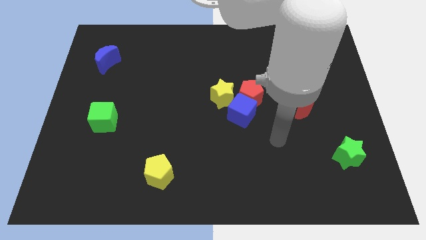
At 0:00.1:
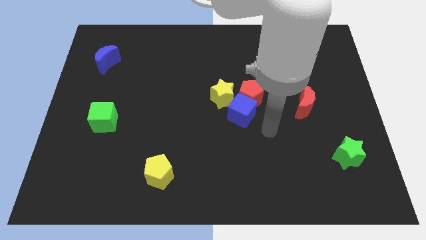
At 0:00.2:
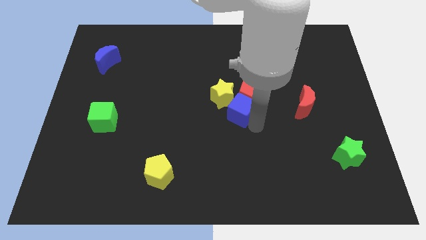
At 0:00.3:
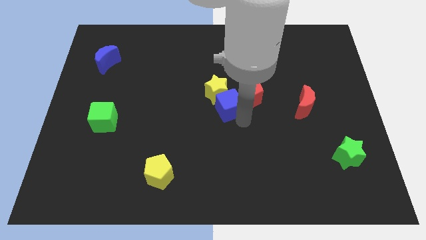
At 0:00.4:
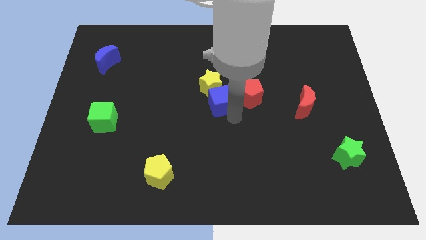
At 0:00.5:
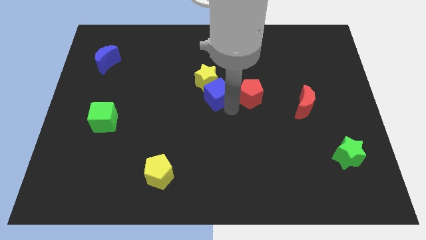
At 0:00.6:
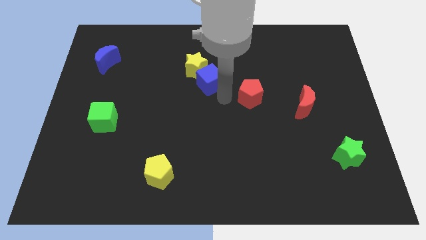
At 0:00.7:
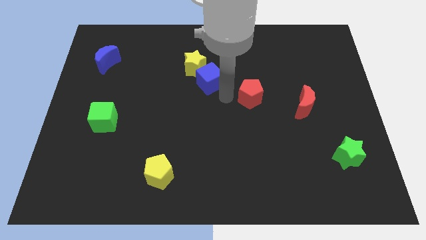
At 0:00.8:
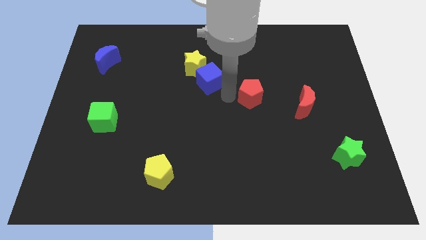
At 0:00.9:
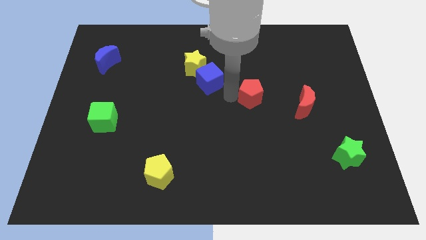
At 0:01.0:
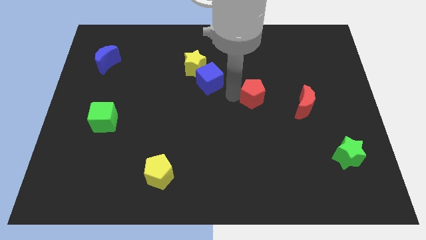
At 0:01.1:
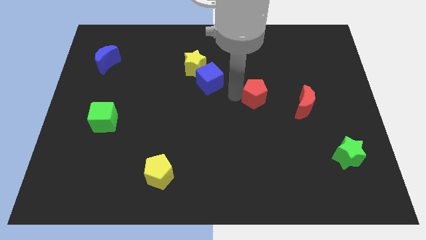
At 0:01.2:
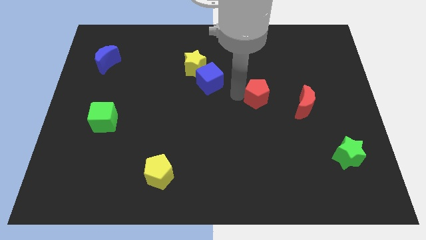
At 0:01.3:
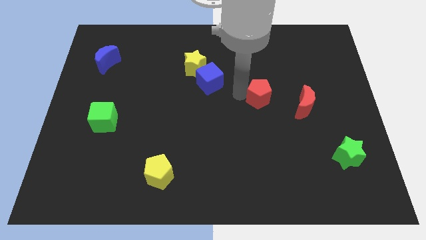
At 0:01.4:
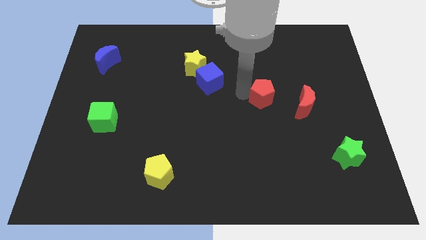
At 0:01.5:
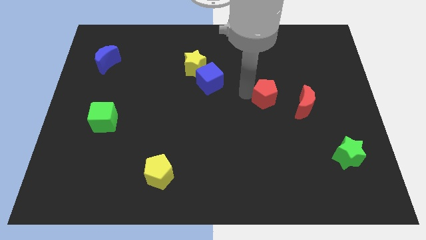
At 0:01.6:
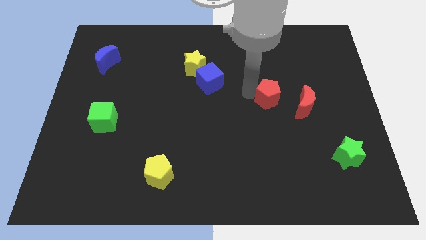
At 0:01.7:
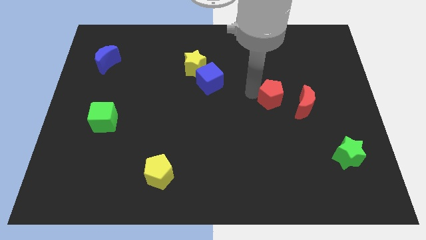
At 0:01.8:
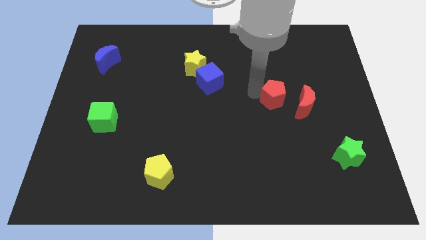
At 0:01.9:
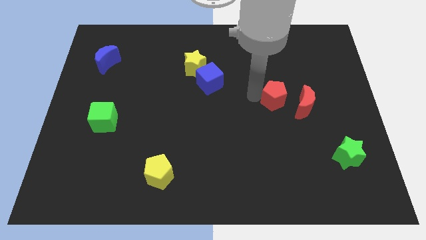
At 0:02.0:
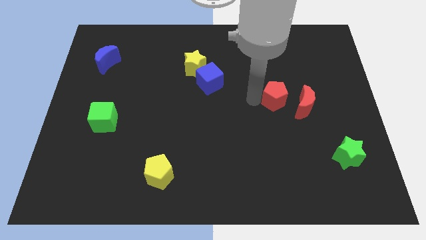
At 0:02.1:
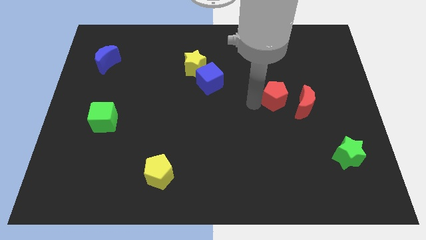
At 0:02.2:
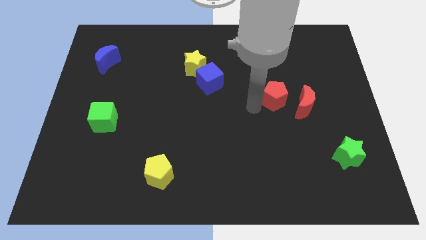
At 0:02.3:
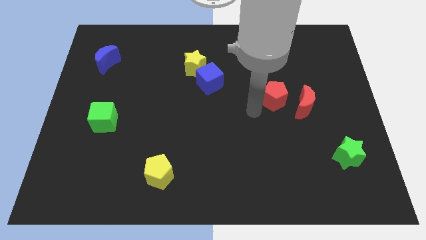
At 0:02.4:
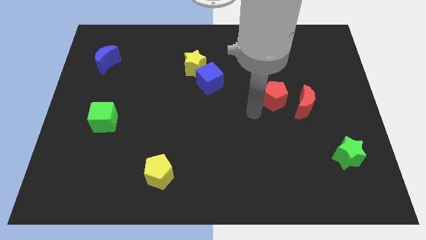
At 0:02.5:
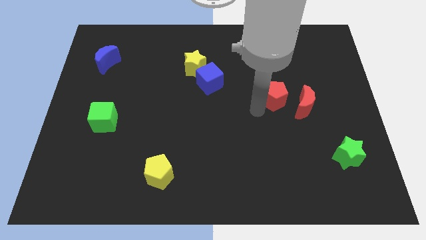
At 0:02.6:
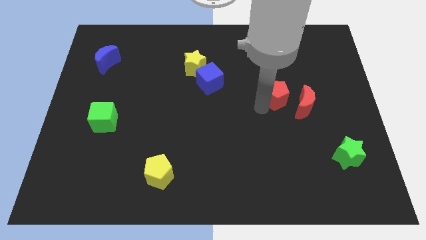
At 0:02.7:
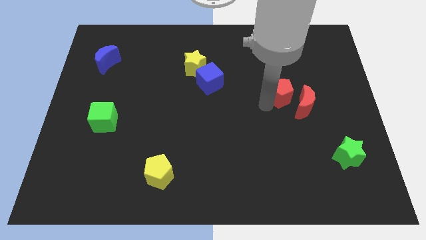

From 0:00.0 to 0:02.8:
move the red pentagon right a little bit

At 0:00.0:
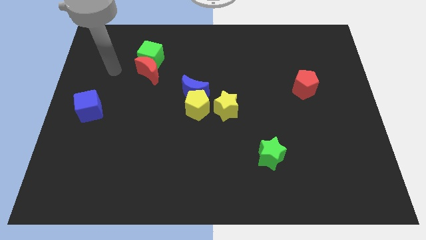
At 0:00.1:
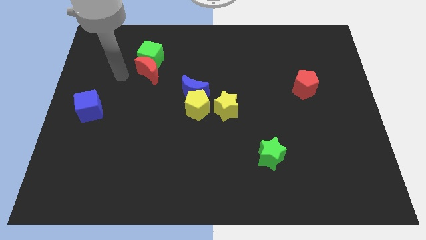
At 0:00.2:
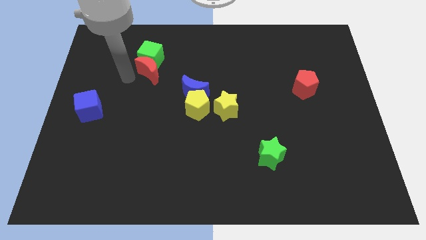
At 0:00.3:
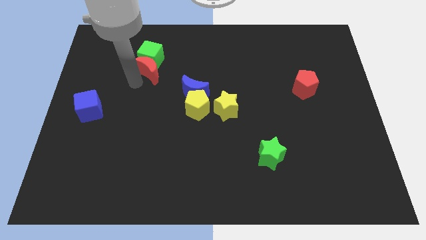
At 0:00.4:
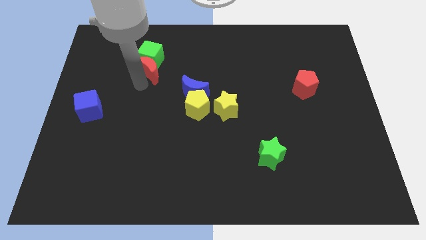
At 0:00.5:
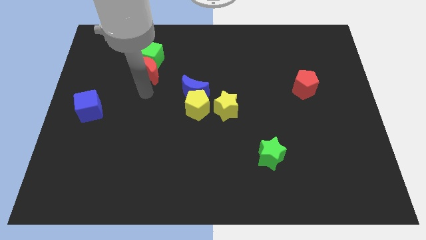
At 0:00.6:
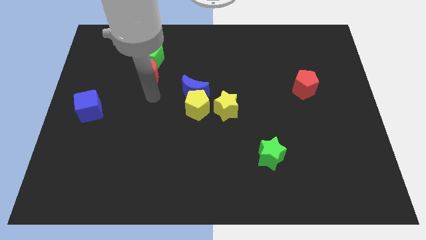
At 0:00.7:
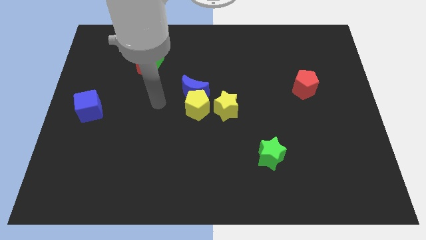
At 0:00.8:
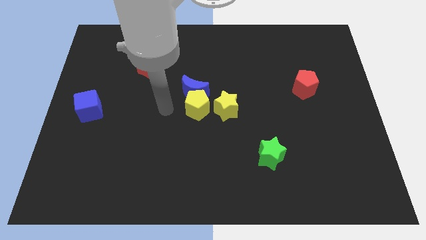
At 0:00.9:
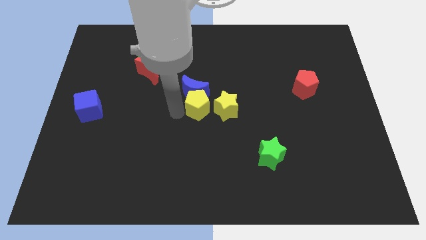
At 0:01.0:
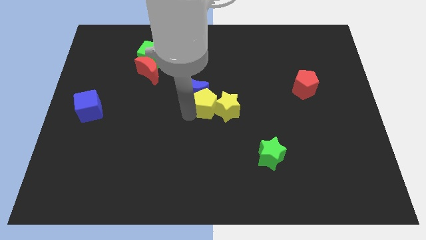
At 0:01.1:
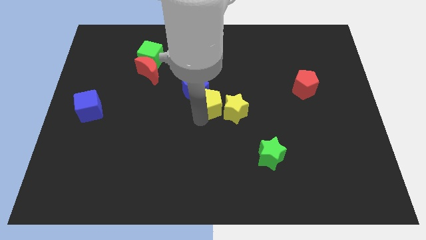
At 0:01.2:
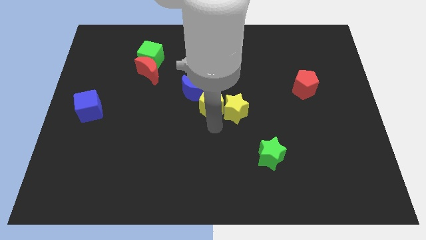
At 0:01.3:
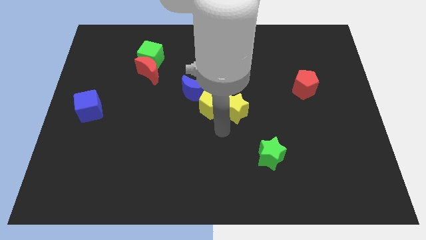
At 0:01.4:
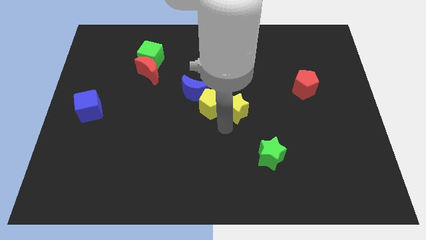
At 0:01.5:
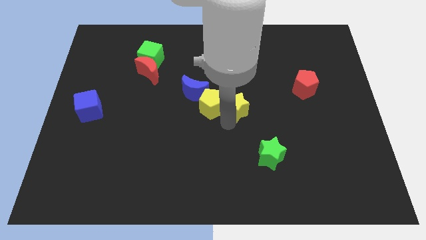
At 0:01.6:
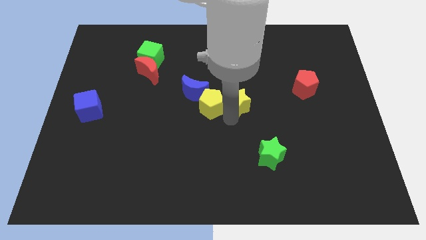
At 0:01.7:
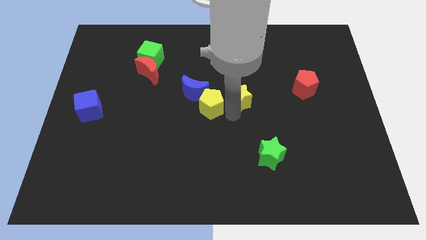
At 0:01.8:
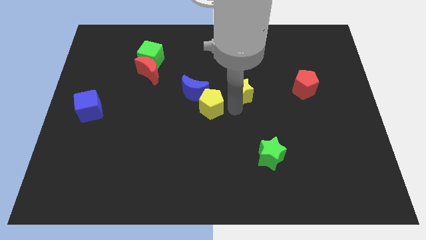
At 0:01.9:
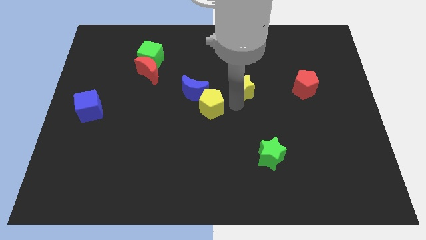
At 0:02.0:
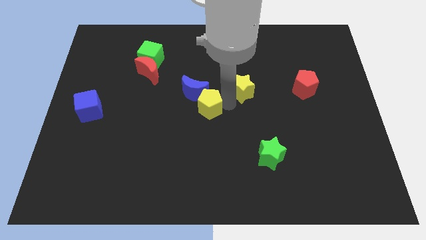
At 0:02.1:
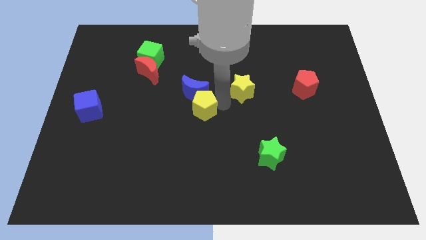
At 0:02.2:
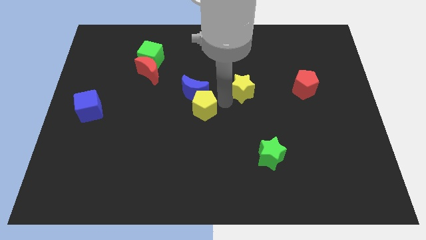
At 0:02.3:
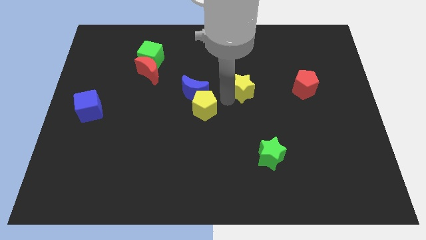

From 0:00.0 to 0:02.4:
slightly move the yellow star up and right

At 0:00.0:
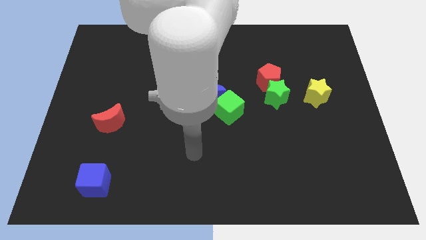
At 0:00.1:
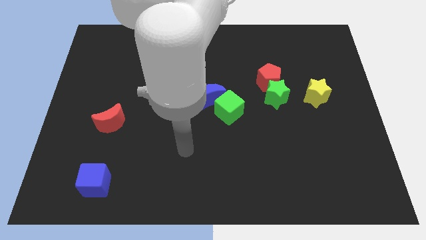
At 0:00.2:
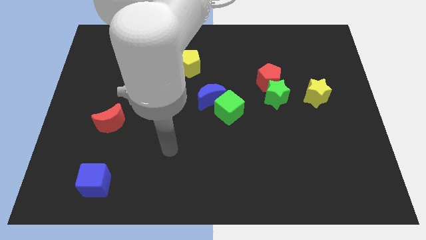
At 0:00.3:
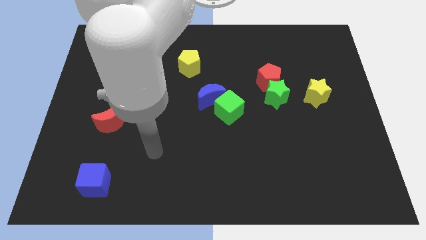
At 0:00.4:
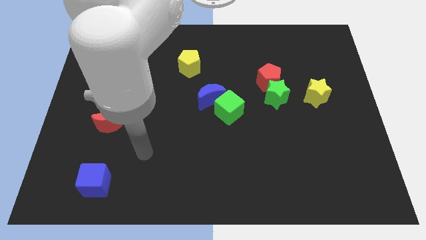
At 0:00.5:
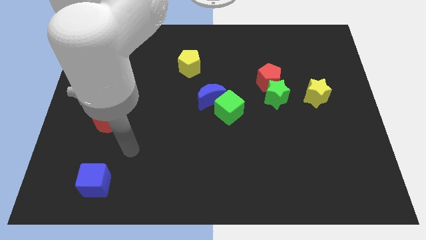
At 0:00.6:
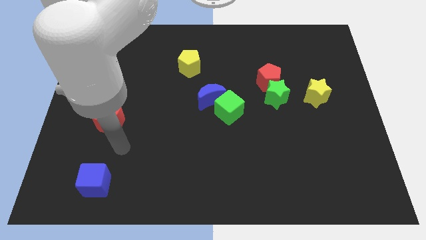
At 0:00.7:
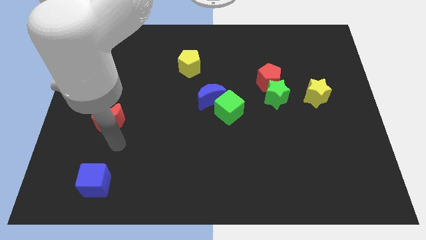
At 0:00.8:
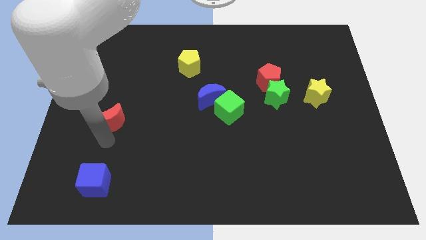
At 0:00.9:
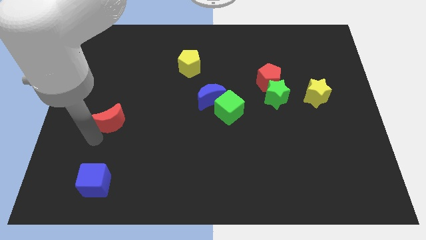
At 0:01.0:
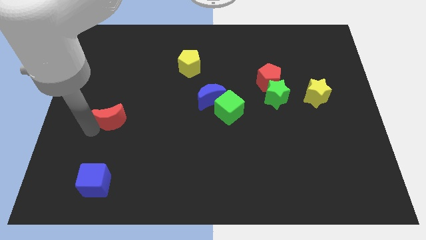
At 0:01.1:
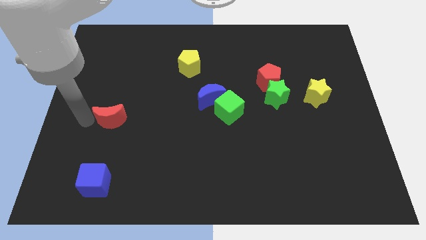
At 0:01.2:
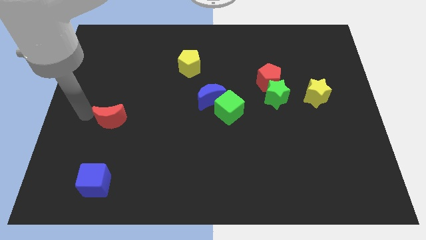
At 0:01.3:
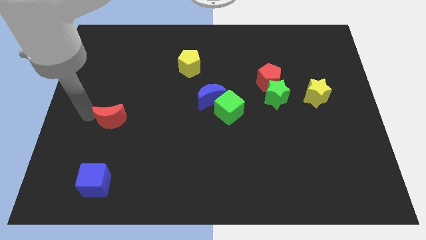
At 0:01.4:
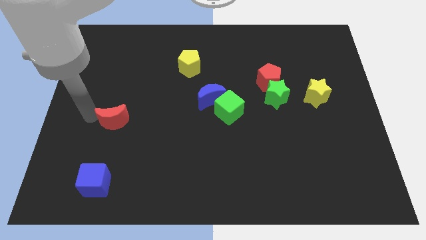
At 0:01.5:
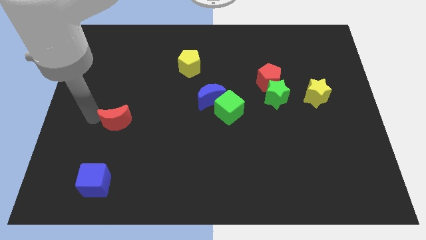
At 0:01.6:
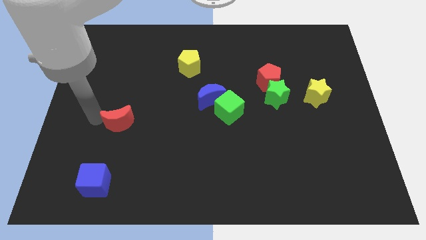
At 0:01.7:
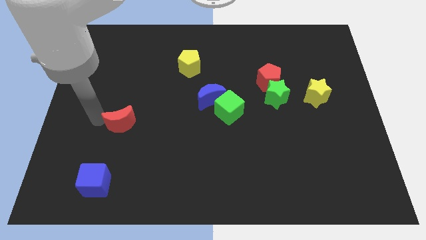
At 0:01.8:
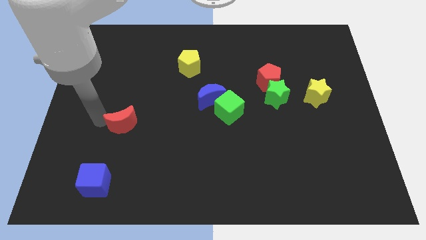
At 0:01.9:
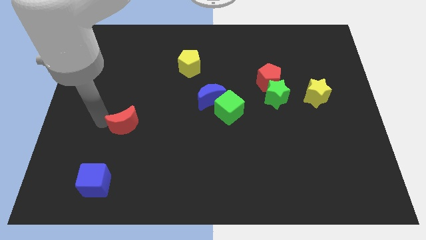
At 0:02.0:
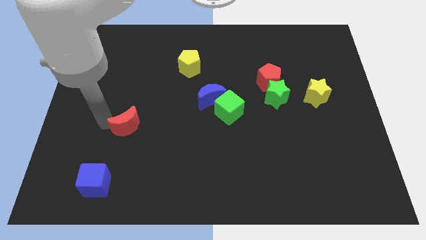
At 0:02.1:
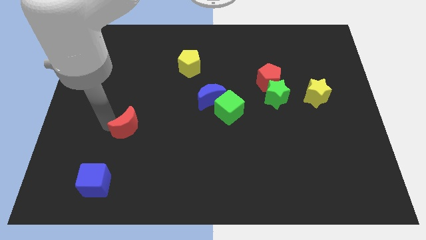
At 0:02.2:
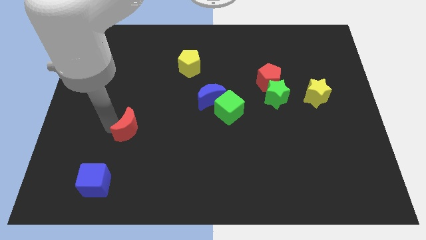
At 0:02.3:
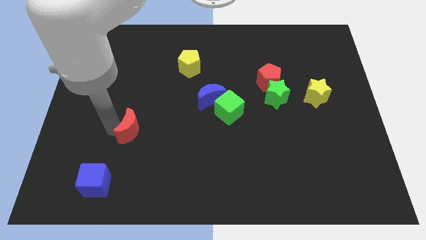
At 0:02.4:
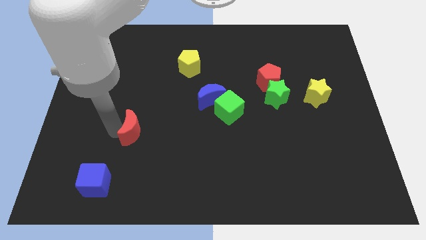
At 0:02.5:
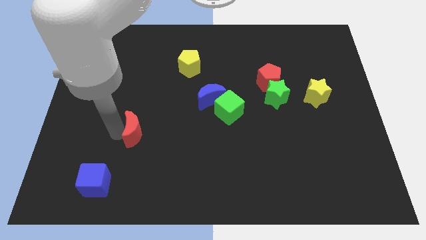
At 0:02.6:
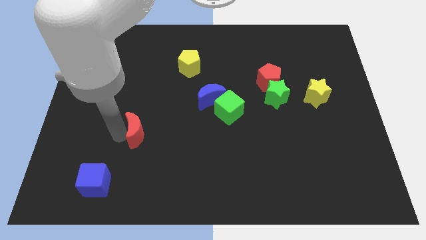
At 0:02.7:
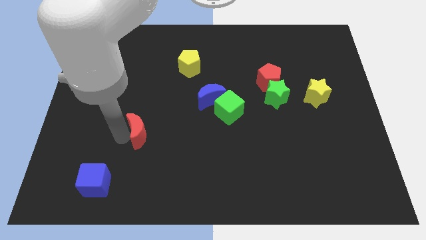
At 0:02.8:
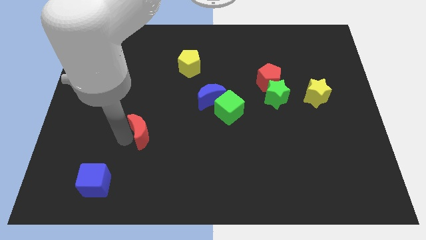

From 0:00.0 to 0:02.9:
slide the red moon a little to the right

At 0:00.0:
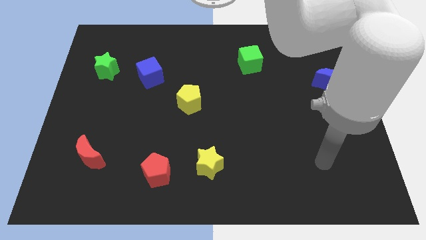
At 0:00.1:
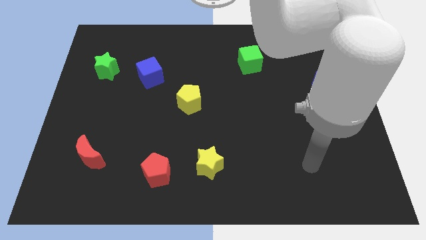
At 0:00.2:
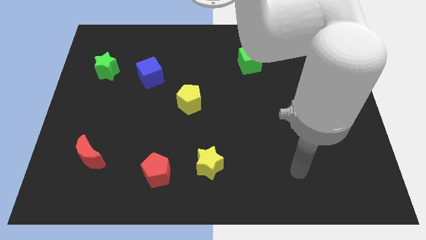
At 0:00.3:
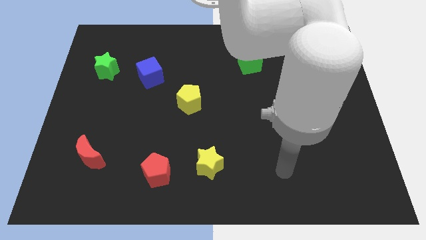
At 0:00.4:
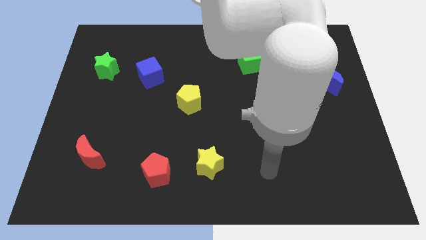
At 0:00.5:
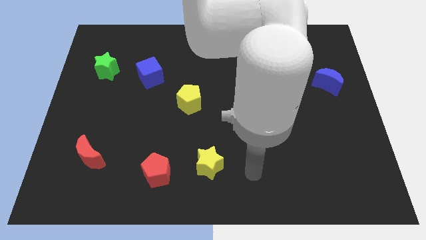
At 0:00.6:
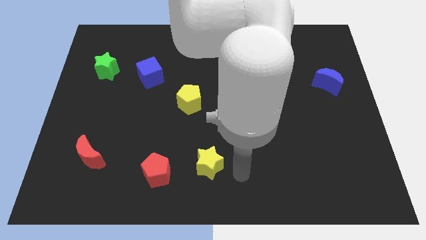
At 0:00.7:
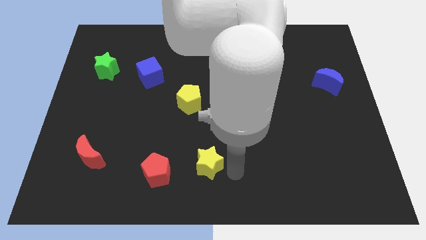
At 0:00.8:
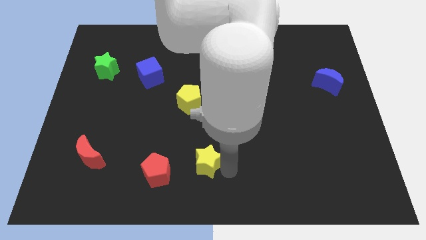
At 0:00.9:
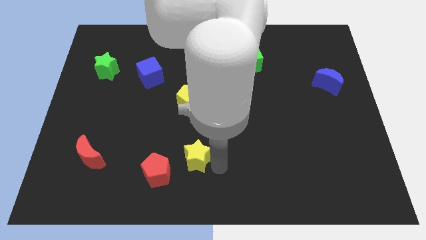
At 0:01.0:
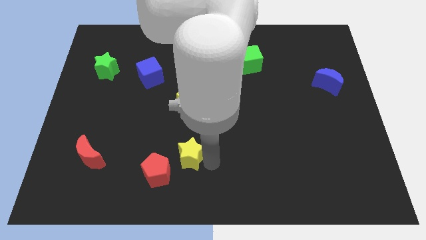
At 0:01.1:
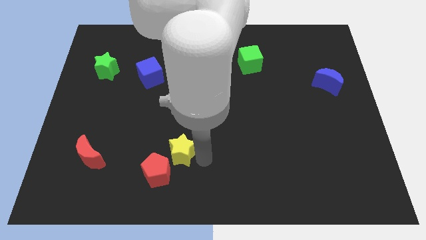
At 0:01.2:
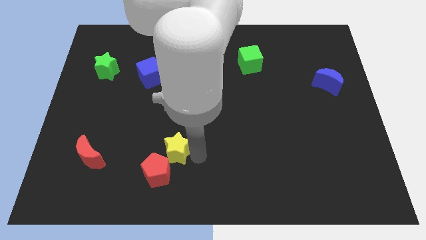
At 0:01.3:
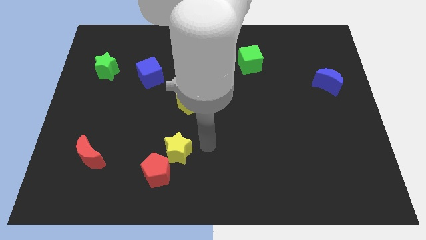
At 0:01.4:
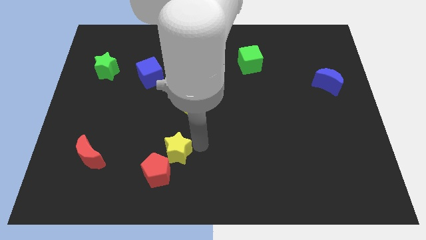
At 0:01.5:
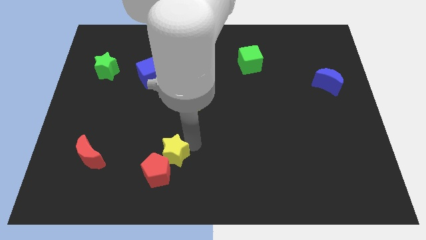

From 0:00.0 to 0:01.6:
push the yellow star to the left slightly
